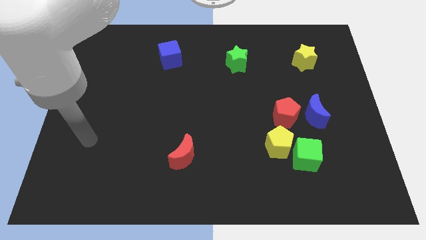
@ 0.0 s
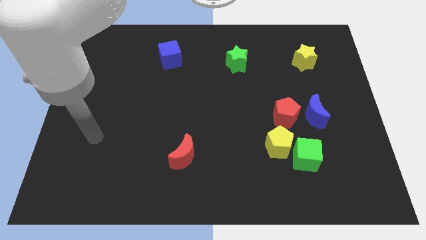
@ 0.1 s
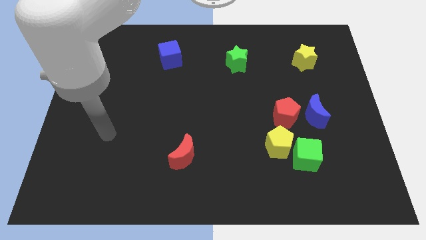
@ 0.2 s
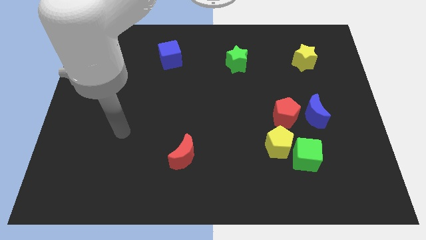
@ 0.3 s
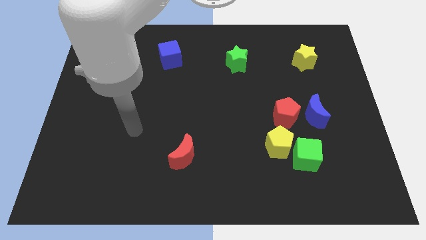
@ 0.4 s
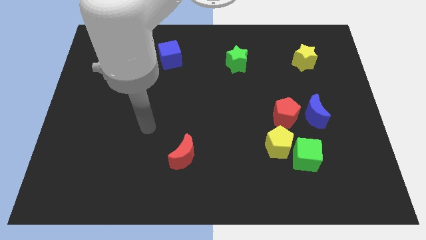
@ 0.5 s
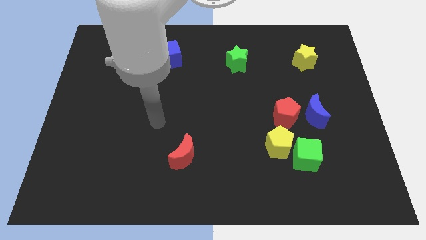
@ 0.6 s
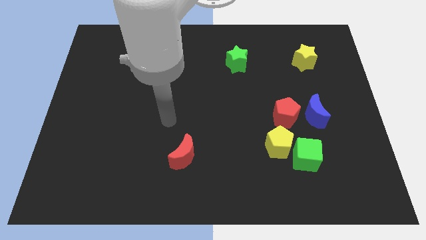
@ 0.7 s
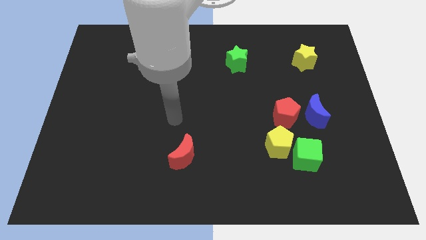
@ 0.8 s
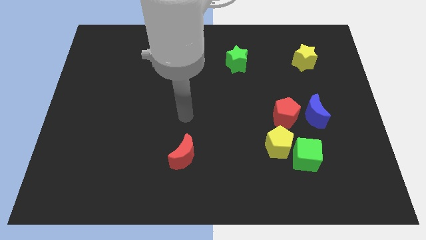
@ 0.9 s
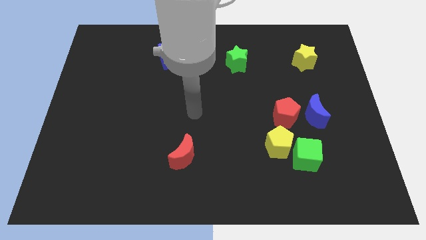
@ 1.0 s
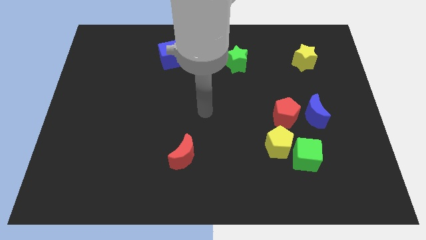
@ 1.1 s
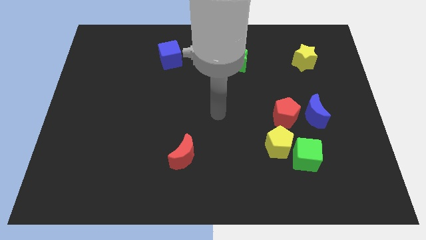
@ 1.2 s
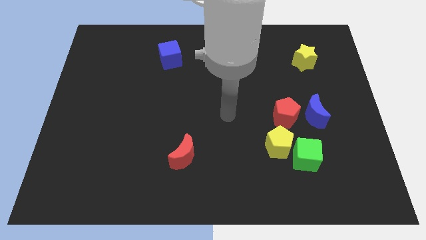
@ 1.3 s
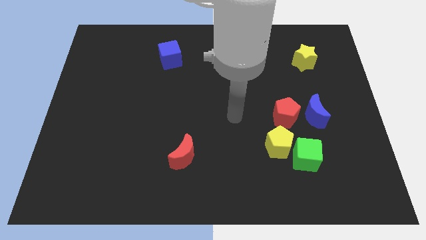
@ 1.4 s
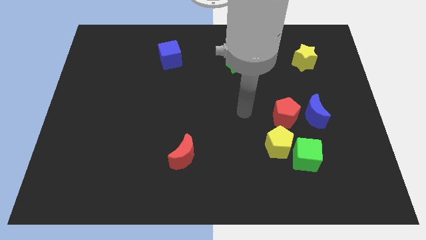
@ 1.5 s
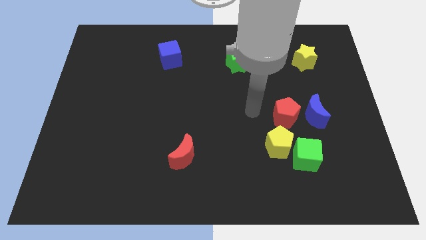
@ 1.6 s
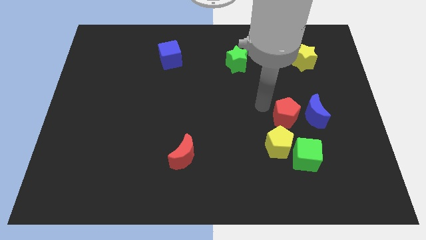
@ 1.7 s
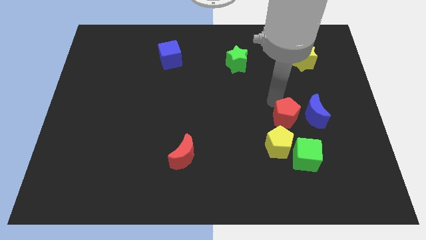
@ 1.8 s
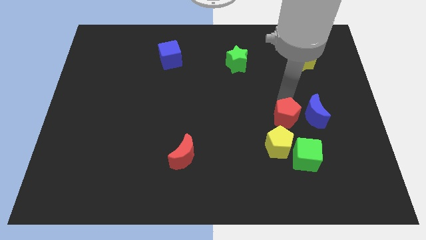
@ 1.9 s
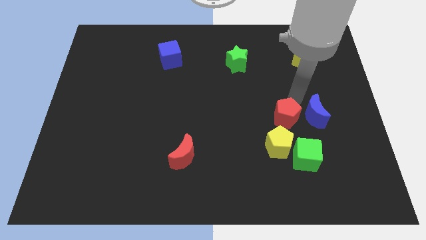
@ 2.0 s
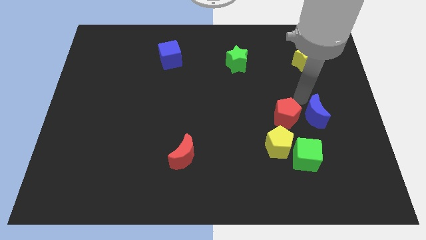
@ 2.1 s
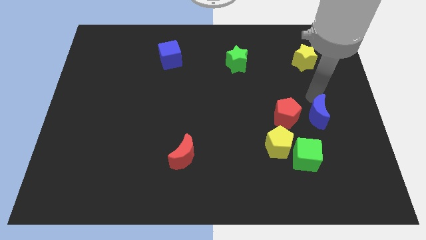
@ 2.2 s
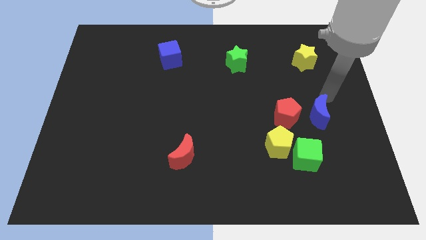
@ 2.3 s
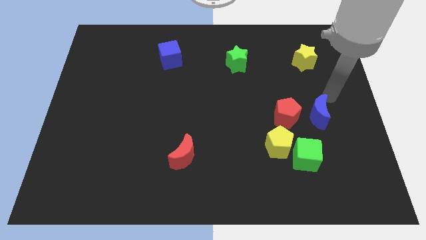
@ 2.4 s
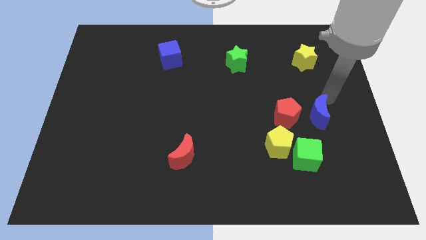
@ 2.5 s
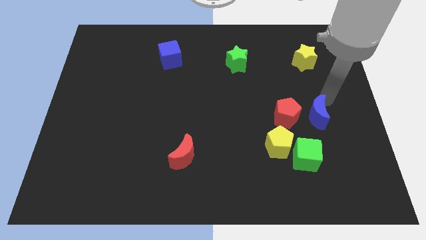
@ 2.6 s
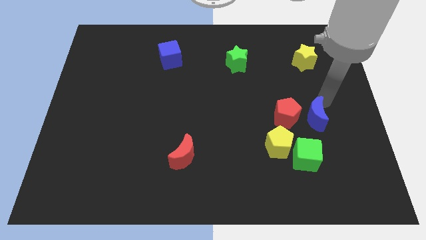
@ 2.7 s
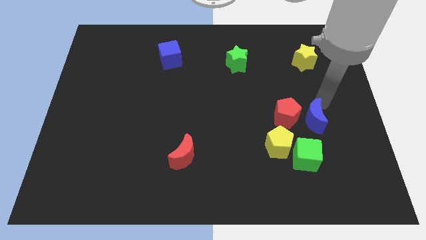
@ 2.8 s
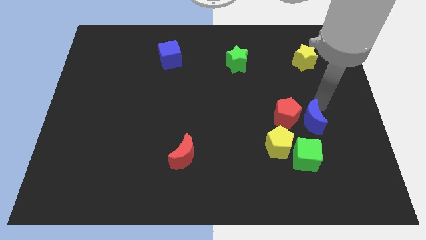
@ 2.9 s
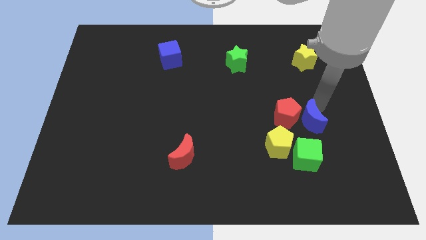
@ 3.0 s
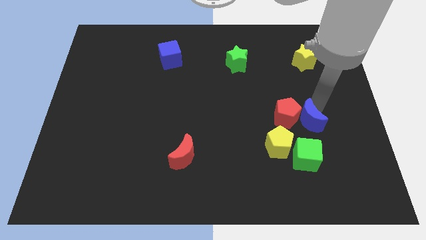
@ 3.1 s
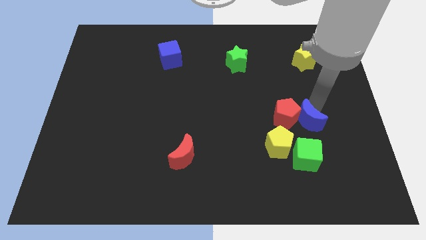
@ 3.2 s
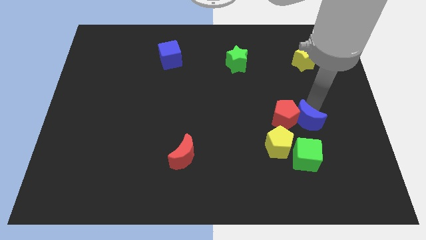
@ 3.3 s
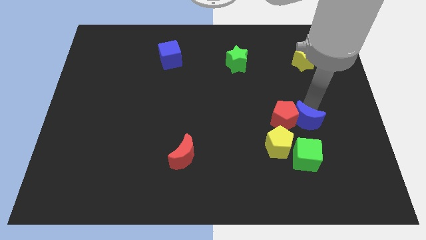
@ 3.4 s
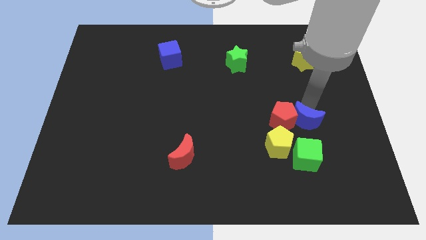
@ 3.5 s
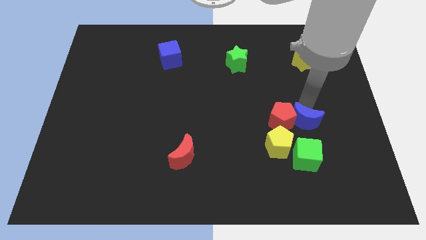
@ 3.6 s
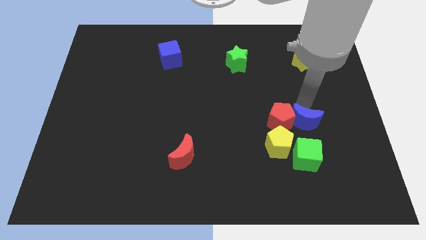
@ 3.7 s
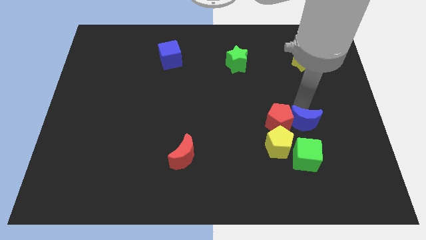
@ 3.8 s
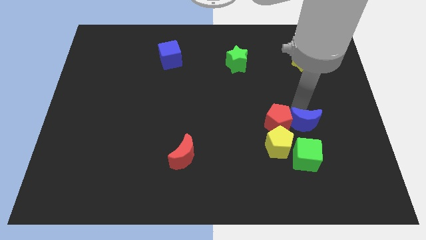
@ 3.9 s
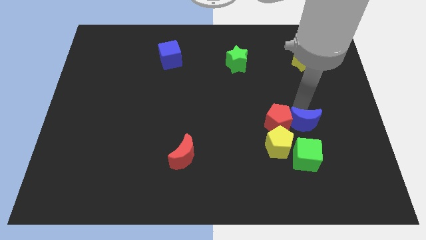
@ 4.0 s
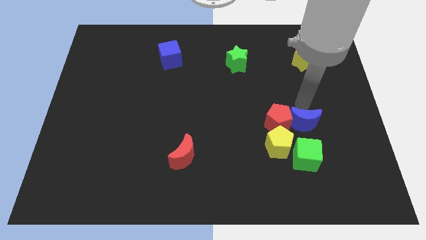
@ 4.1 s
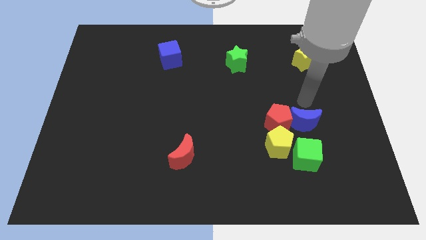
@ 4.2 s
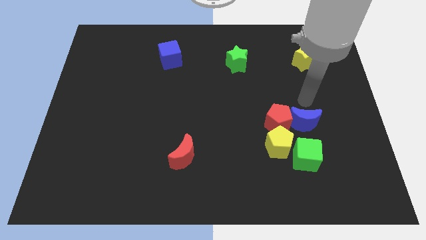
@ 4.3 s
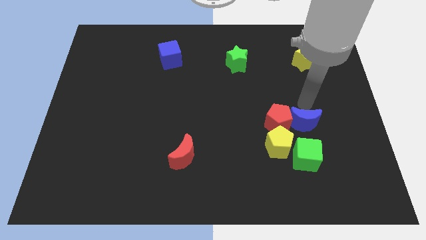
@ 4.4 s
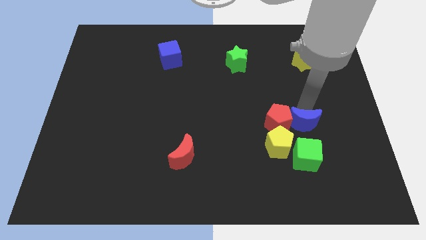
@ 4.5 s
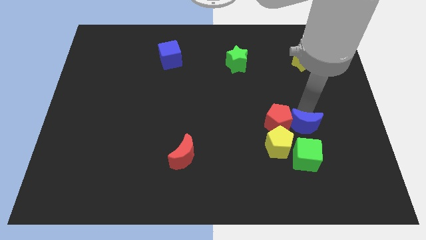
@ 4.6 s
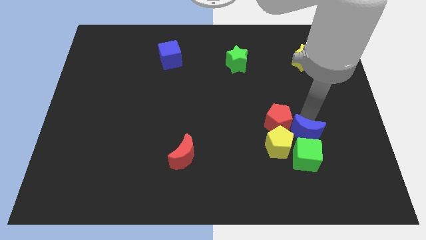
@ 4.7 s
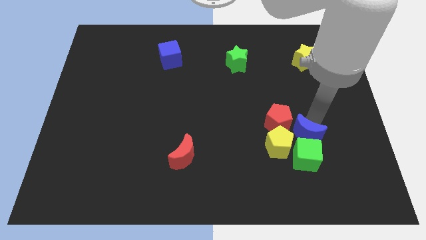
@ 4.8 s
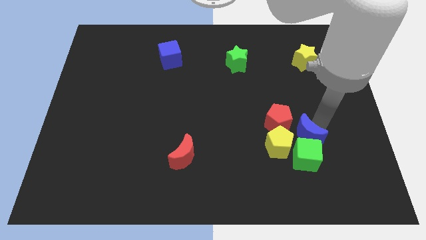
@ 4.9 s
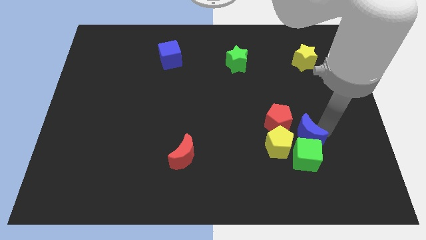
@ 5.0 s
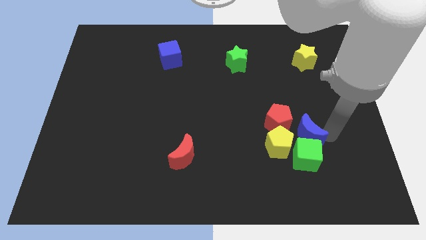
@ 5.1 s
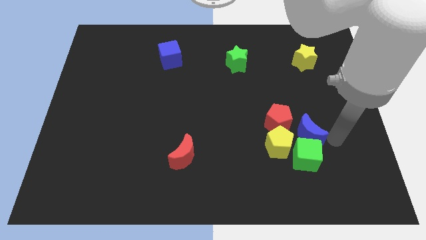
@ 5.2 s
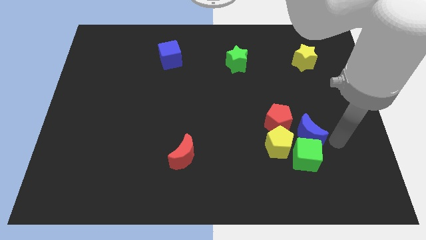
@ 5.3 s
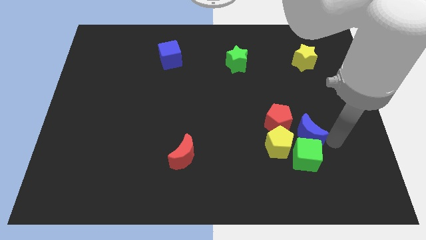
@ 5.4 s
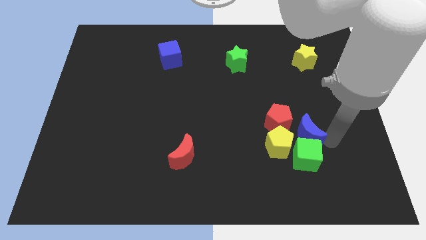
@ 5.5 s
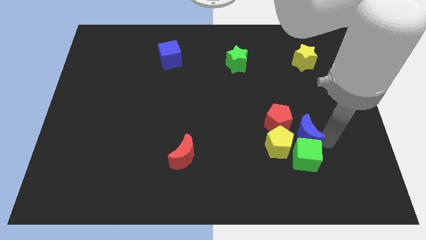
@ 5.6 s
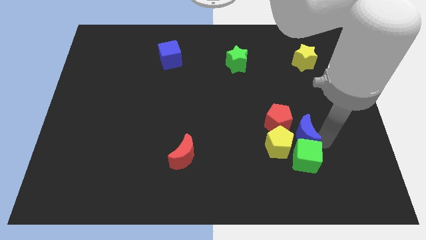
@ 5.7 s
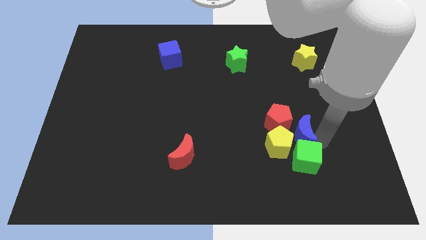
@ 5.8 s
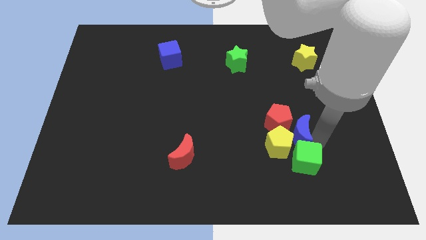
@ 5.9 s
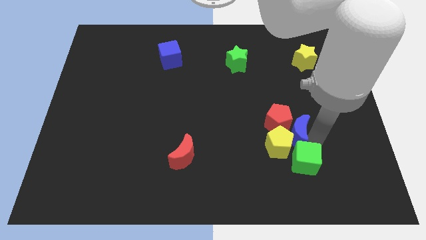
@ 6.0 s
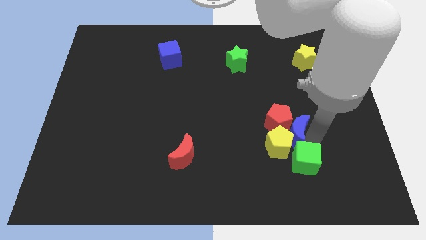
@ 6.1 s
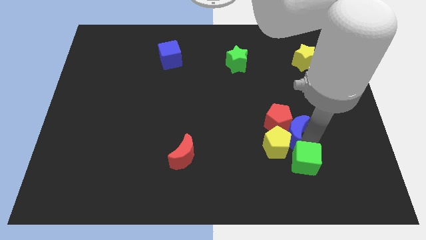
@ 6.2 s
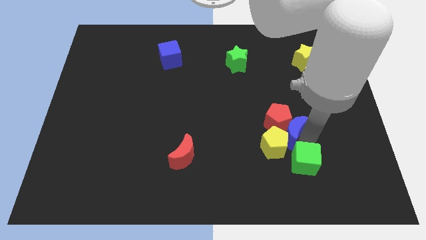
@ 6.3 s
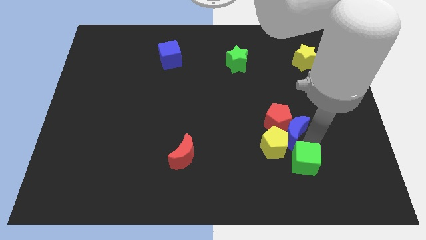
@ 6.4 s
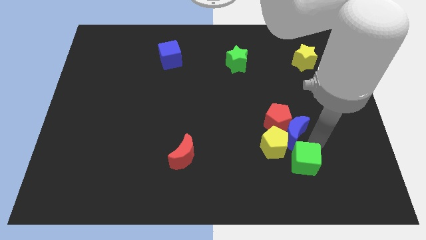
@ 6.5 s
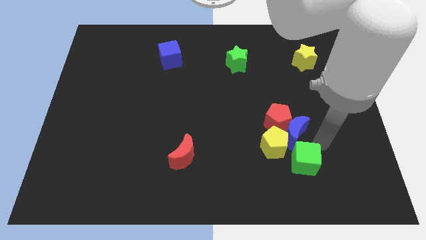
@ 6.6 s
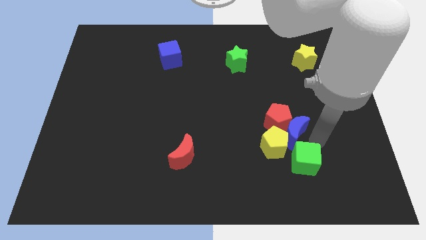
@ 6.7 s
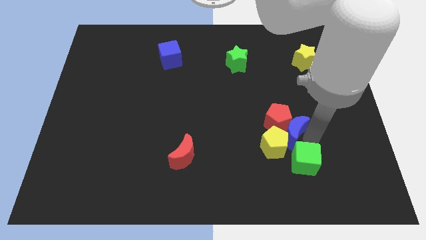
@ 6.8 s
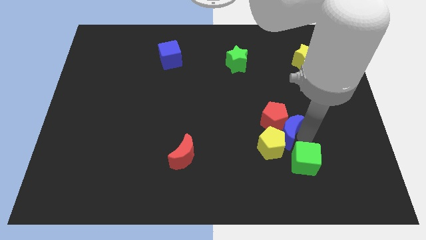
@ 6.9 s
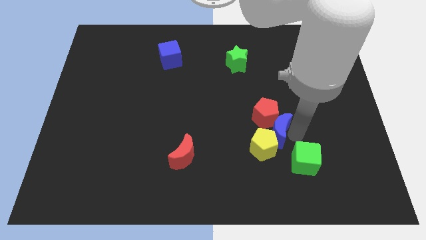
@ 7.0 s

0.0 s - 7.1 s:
move the blue moon to the left somewhat

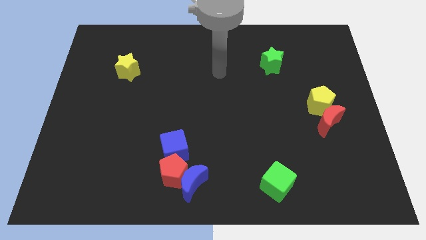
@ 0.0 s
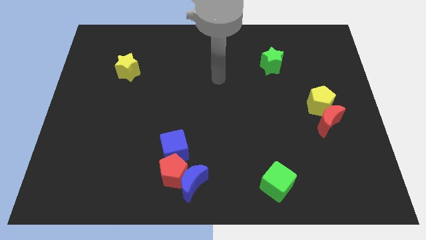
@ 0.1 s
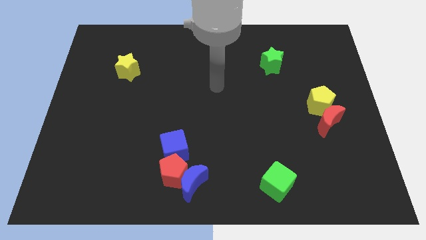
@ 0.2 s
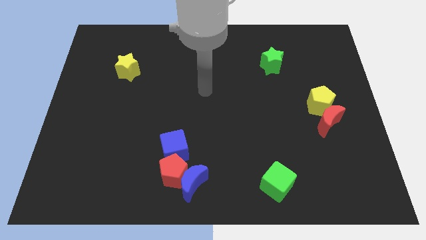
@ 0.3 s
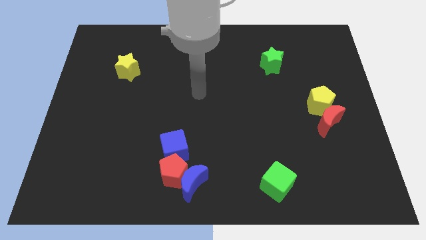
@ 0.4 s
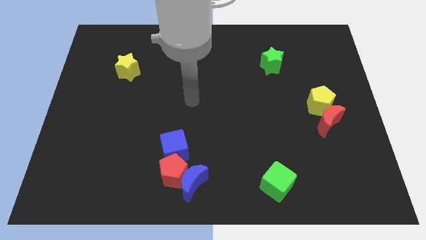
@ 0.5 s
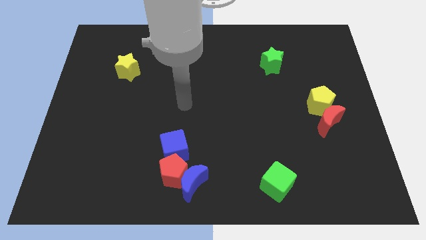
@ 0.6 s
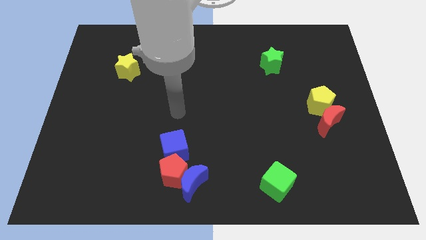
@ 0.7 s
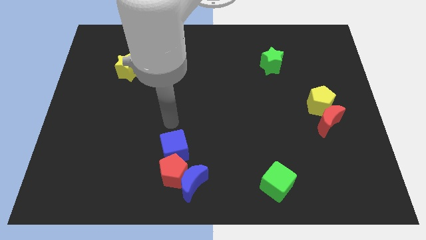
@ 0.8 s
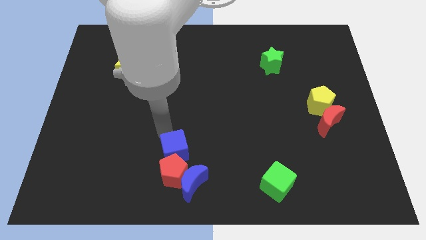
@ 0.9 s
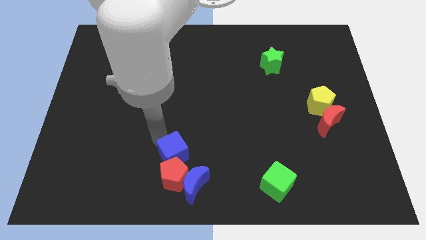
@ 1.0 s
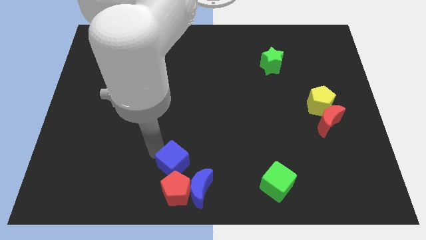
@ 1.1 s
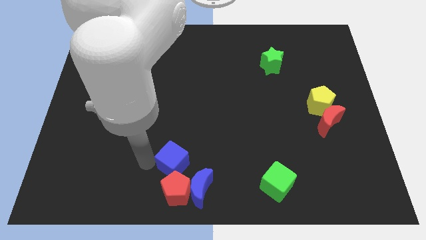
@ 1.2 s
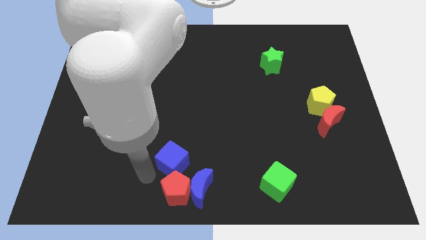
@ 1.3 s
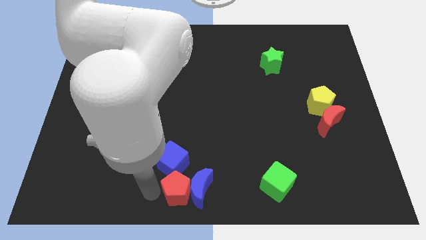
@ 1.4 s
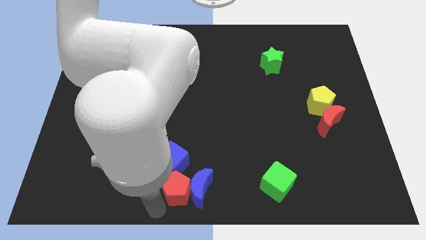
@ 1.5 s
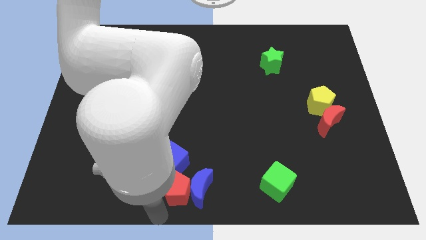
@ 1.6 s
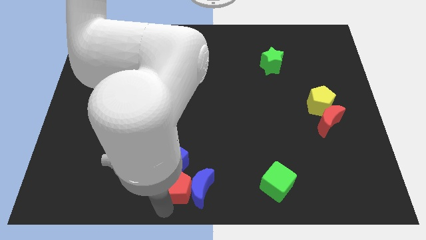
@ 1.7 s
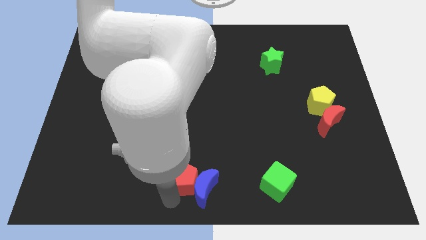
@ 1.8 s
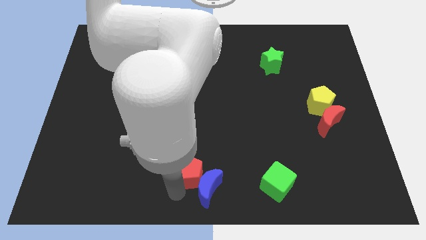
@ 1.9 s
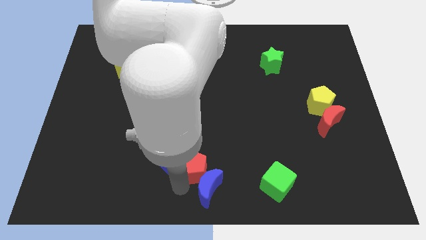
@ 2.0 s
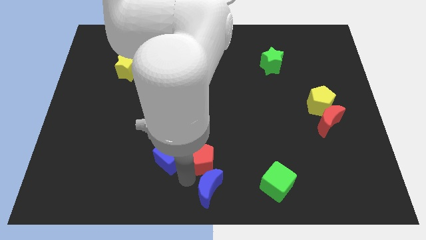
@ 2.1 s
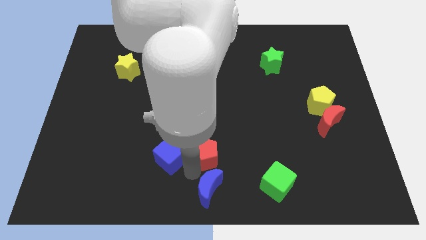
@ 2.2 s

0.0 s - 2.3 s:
push the red pentagon up and right diagonally a little
